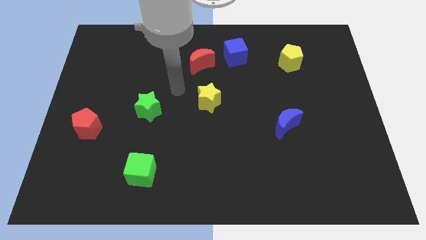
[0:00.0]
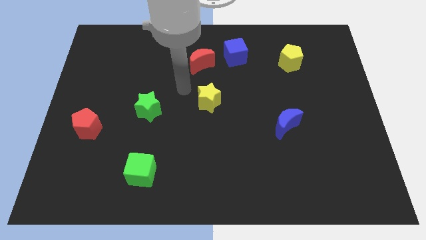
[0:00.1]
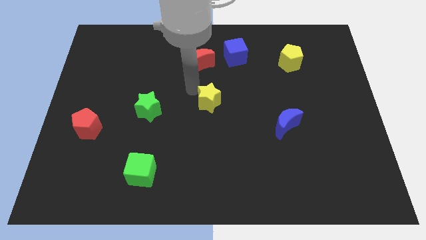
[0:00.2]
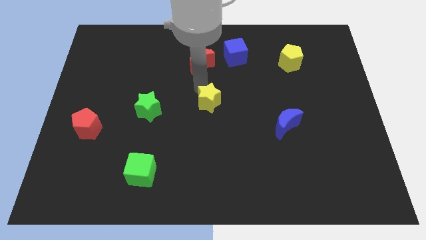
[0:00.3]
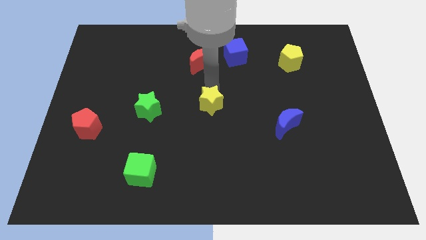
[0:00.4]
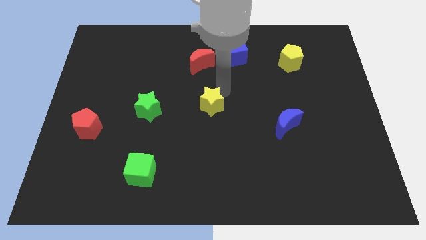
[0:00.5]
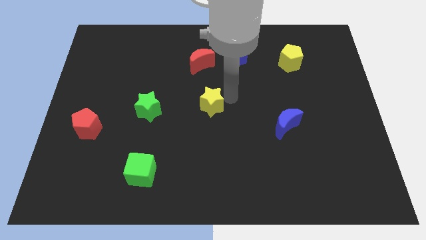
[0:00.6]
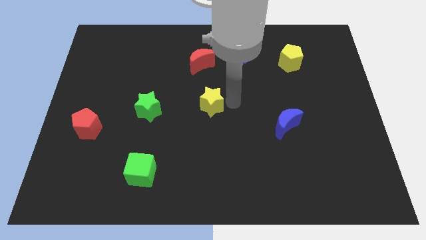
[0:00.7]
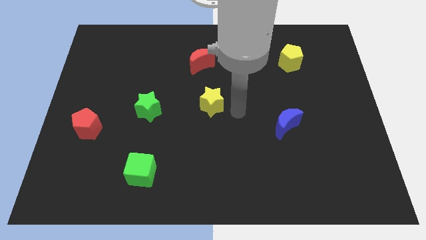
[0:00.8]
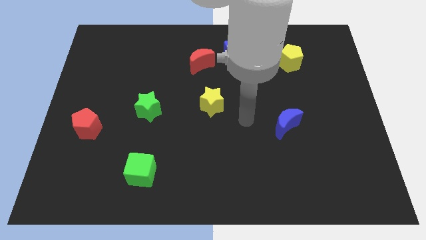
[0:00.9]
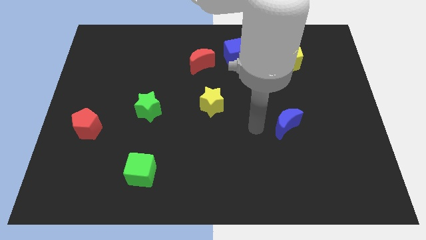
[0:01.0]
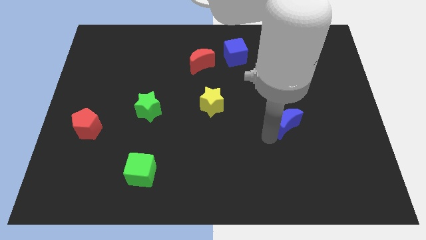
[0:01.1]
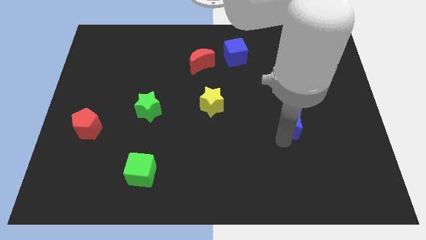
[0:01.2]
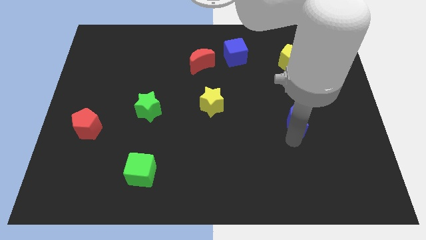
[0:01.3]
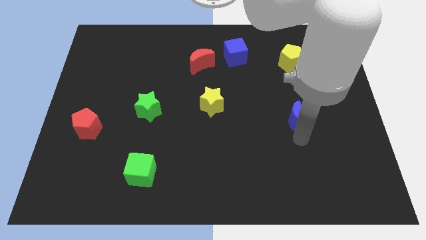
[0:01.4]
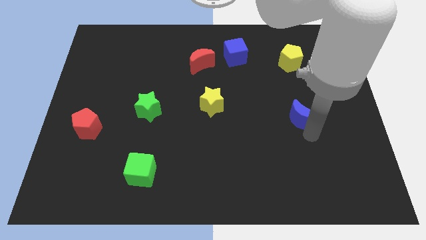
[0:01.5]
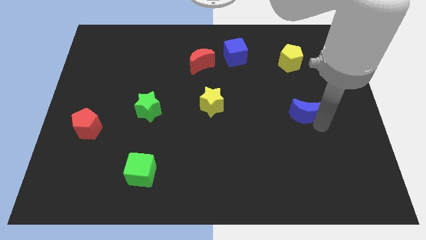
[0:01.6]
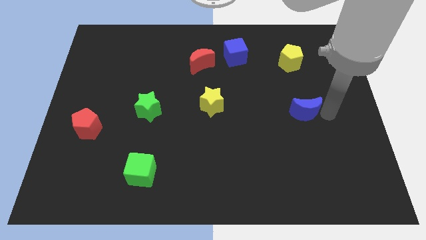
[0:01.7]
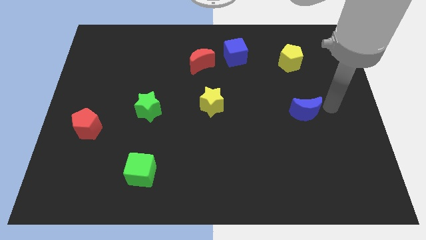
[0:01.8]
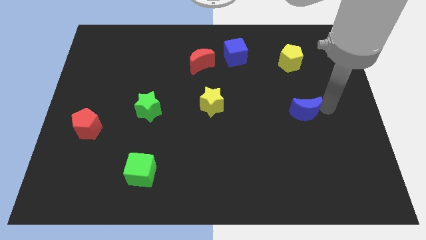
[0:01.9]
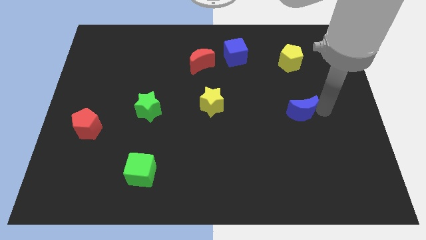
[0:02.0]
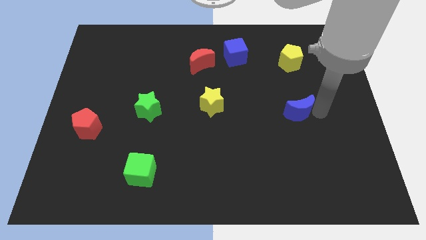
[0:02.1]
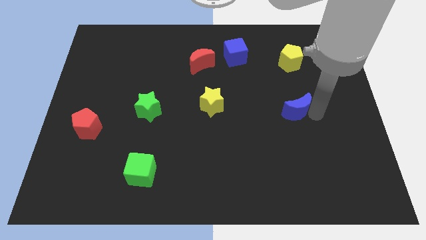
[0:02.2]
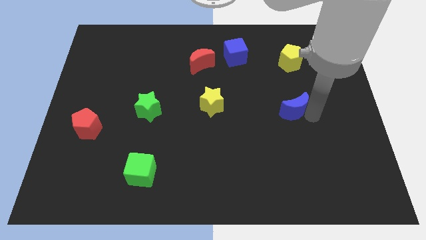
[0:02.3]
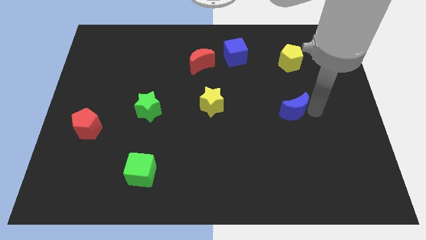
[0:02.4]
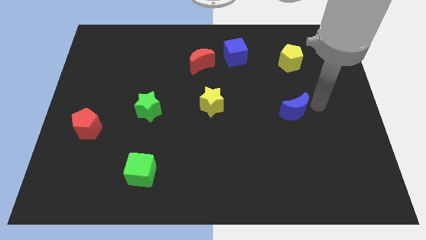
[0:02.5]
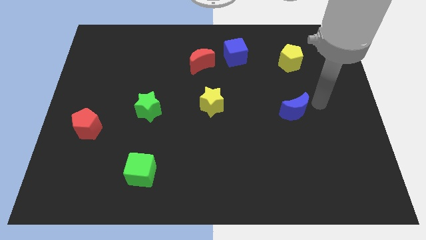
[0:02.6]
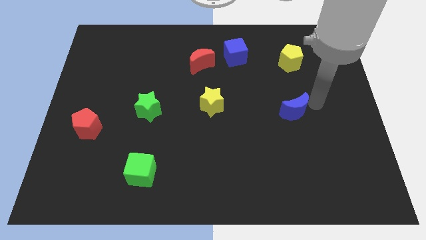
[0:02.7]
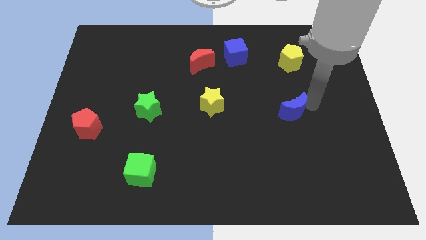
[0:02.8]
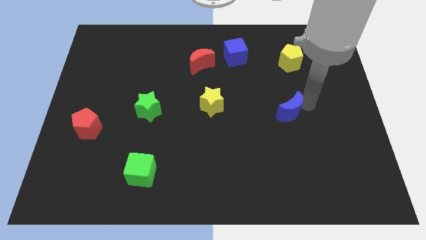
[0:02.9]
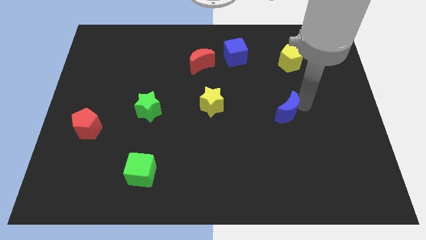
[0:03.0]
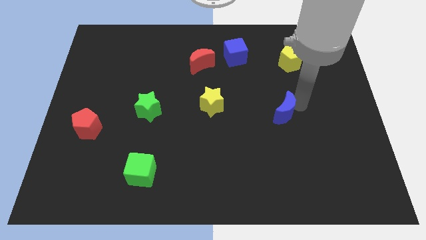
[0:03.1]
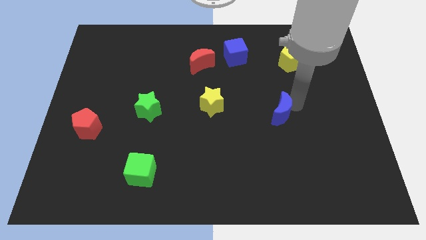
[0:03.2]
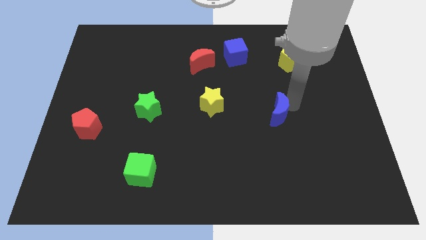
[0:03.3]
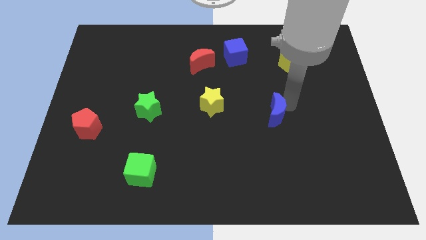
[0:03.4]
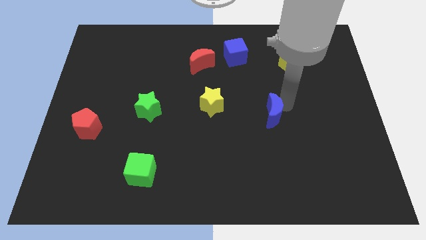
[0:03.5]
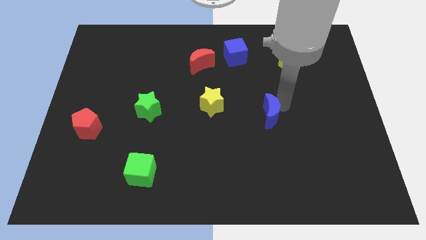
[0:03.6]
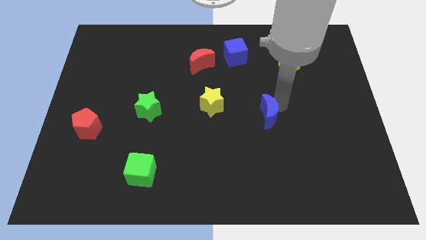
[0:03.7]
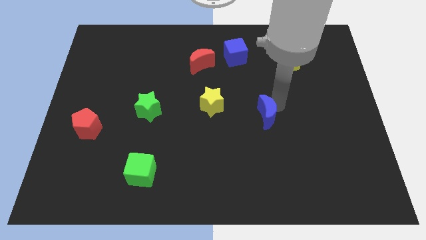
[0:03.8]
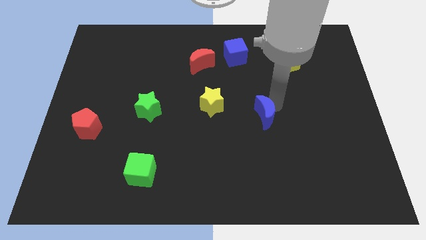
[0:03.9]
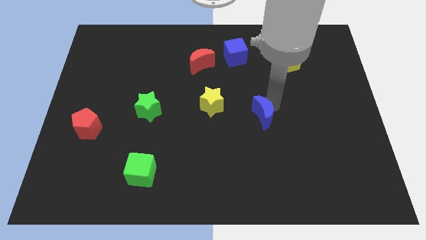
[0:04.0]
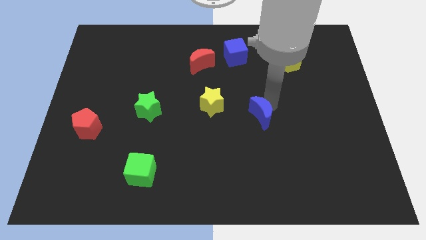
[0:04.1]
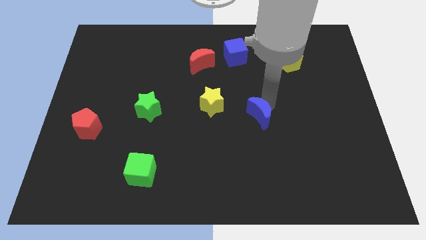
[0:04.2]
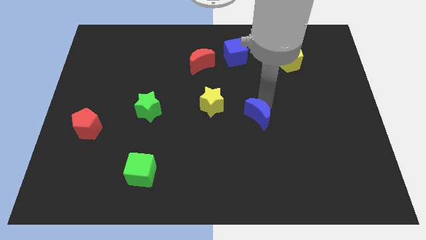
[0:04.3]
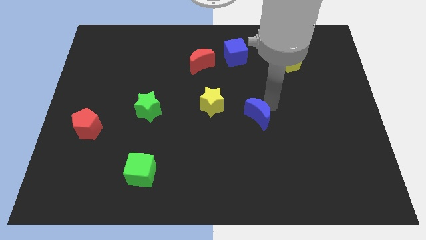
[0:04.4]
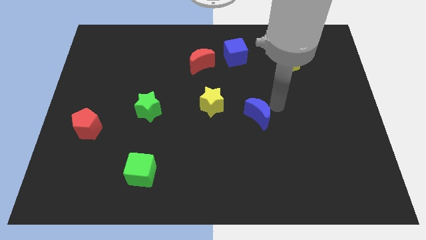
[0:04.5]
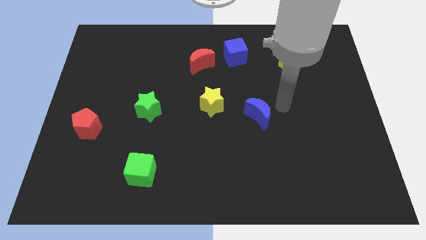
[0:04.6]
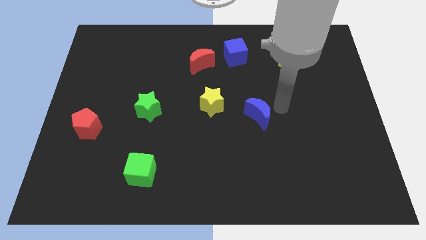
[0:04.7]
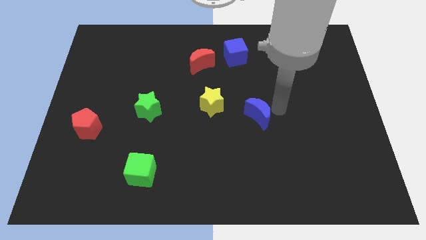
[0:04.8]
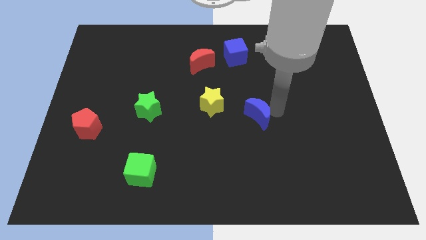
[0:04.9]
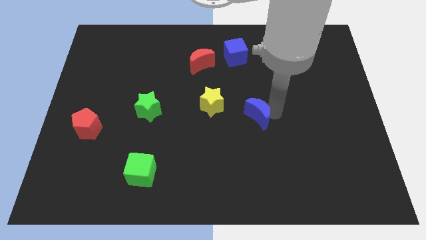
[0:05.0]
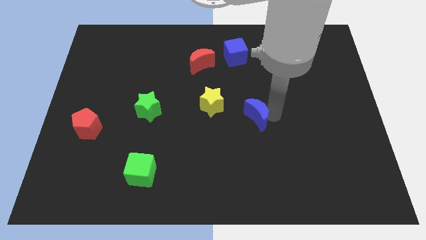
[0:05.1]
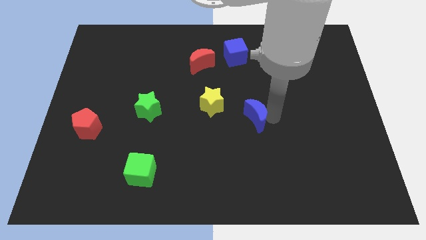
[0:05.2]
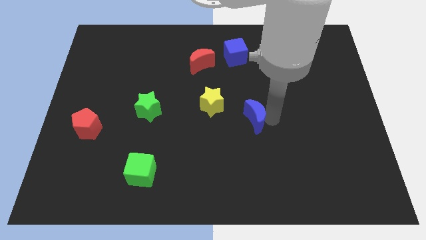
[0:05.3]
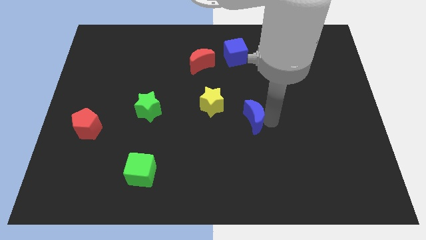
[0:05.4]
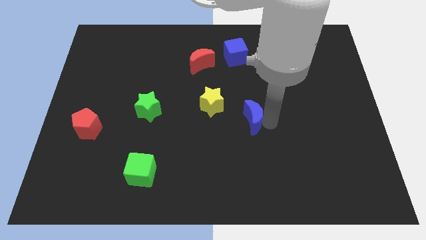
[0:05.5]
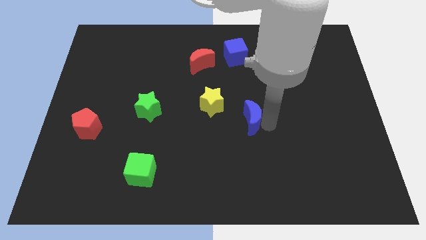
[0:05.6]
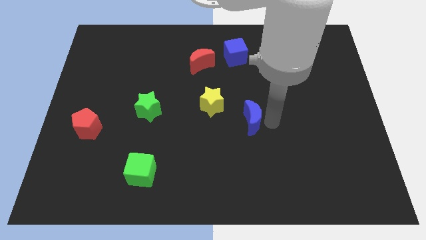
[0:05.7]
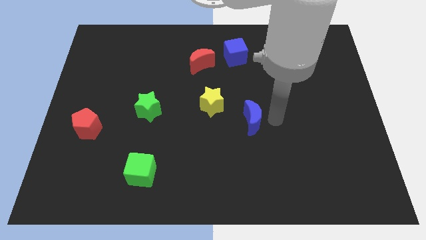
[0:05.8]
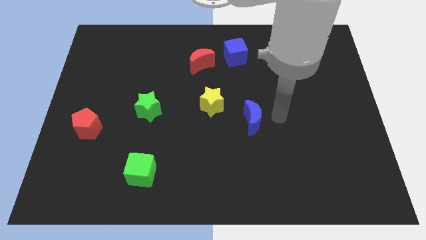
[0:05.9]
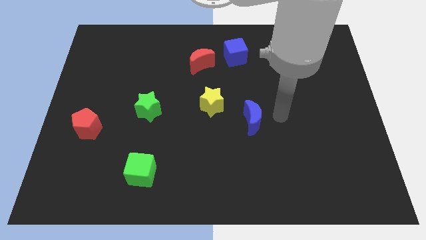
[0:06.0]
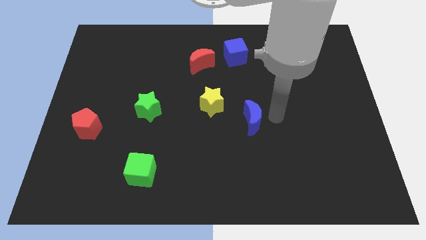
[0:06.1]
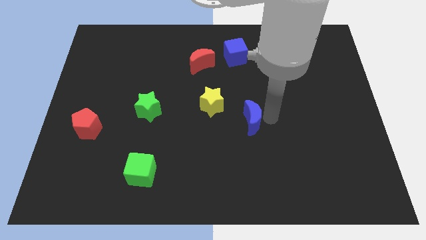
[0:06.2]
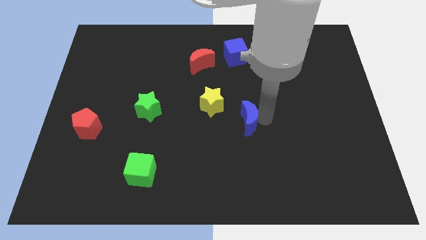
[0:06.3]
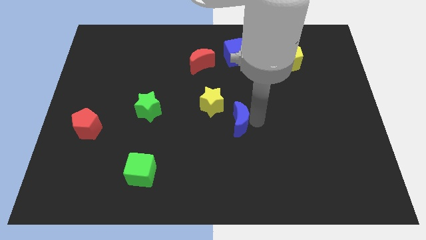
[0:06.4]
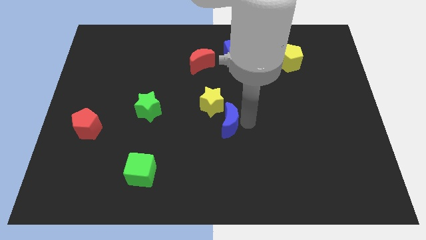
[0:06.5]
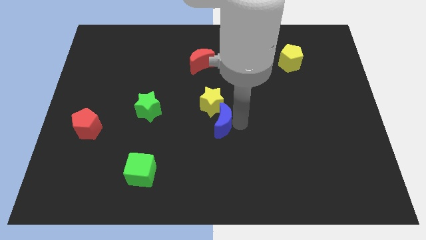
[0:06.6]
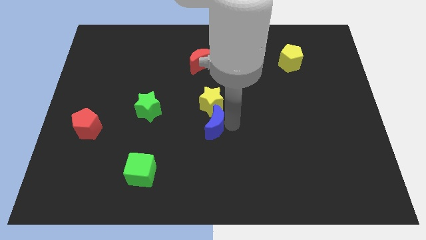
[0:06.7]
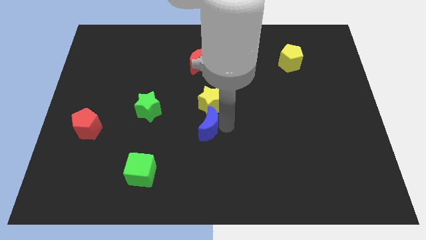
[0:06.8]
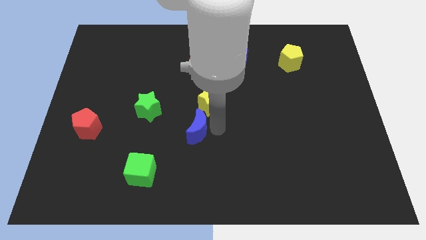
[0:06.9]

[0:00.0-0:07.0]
push the blue moon to the left

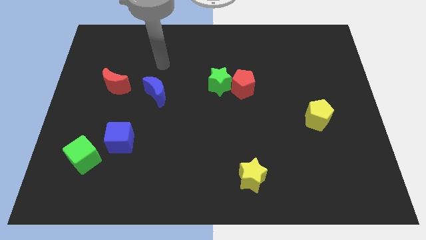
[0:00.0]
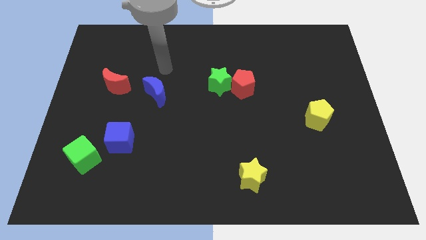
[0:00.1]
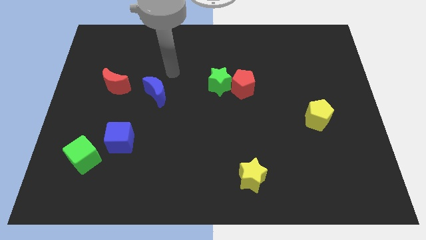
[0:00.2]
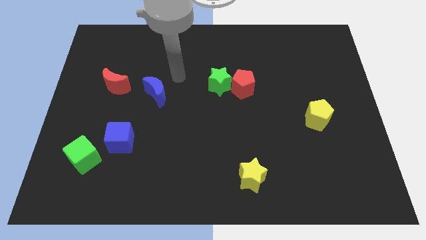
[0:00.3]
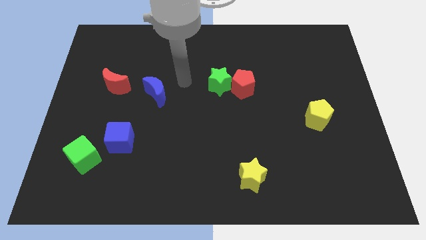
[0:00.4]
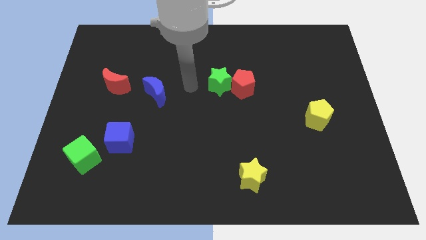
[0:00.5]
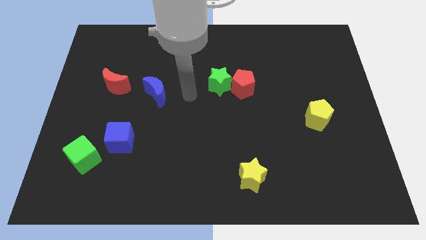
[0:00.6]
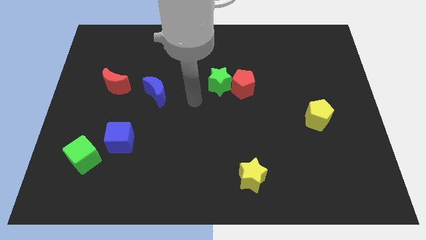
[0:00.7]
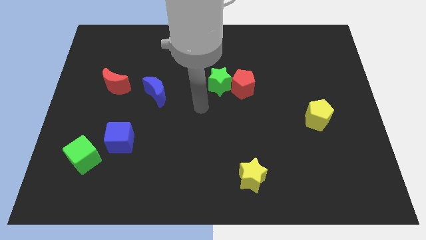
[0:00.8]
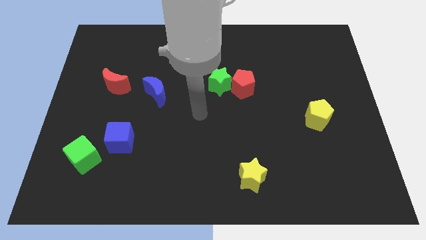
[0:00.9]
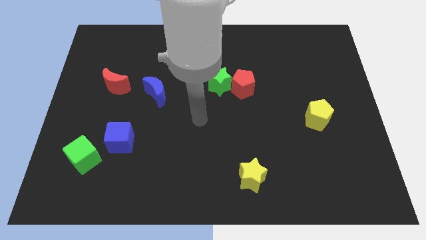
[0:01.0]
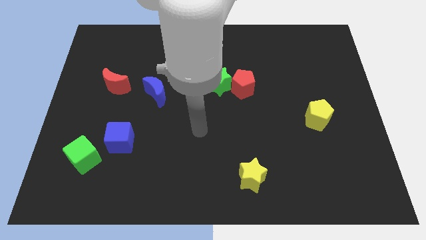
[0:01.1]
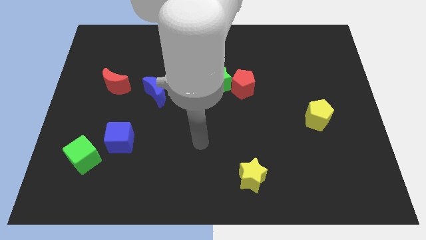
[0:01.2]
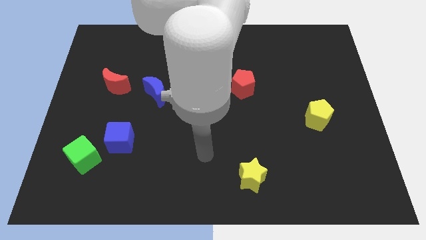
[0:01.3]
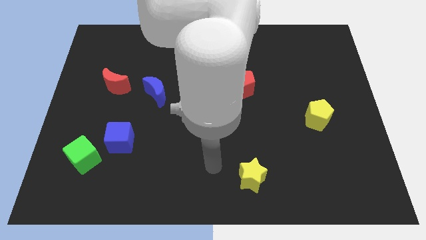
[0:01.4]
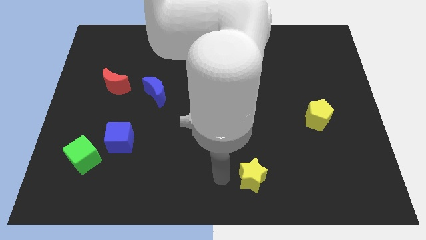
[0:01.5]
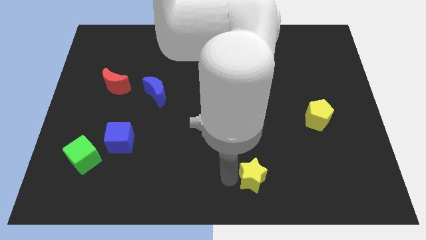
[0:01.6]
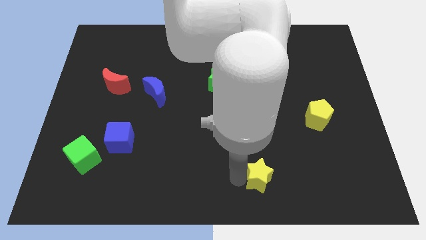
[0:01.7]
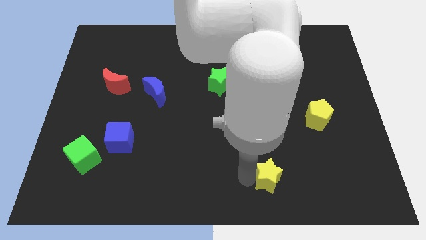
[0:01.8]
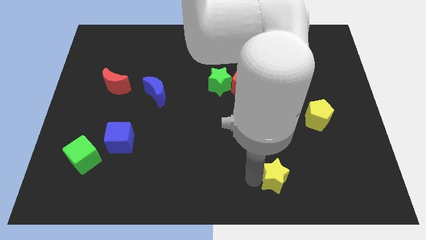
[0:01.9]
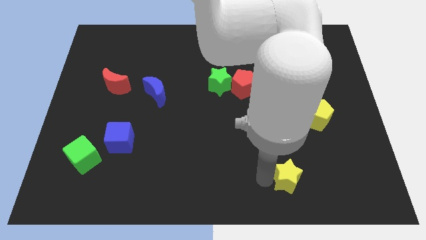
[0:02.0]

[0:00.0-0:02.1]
slightly slide the yellow star right
